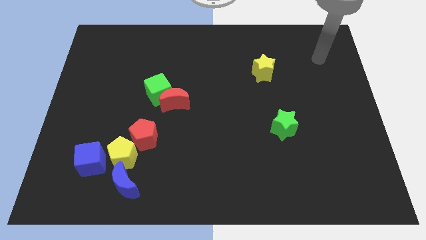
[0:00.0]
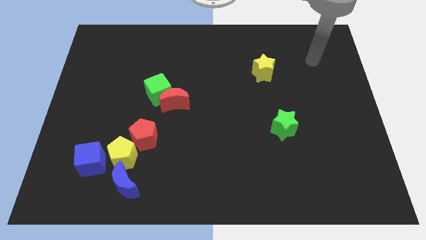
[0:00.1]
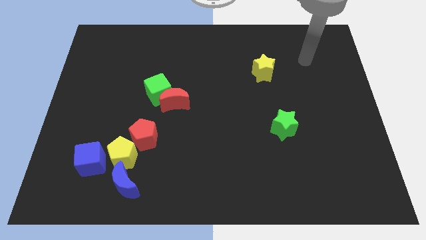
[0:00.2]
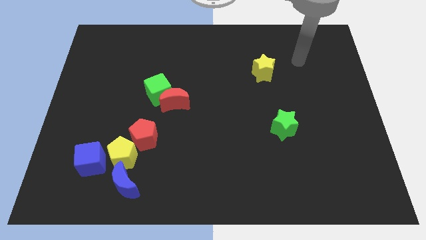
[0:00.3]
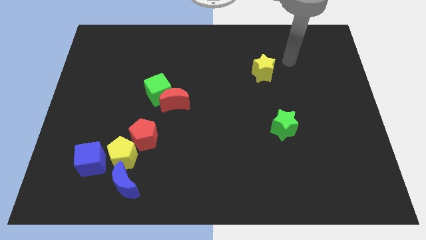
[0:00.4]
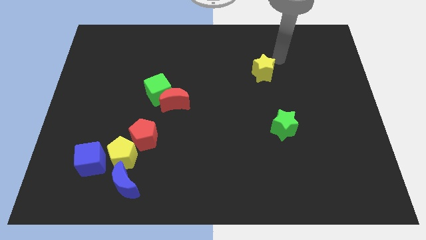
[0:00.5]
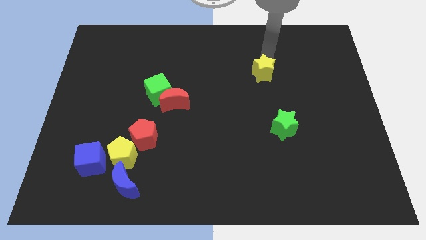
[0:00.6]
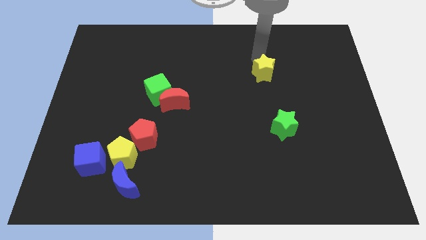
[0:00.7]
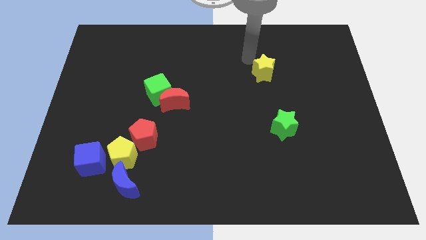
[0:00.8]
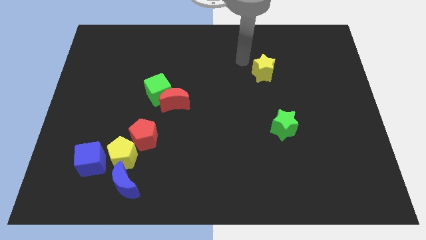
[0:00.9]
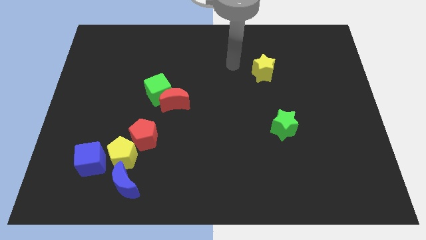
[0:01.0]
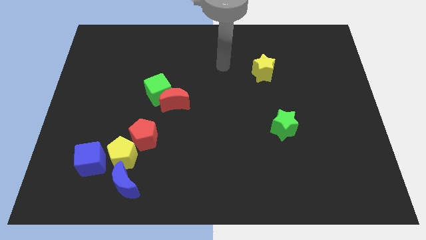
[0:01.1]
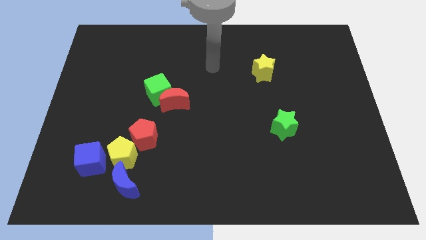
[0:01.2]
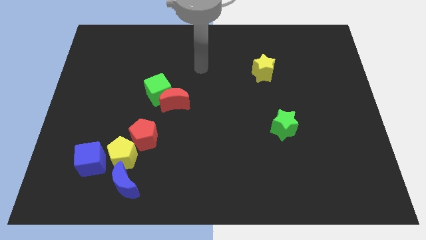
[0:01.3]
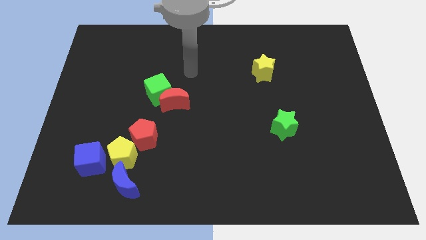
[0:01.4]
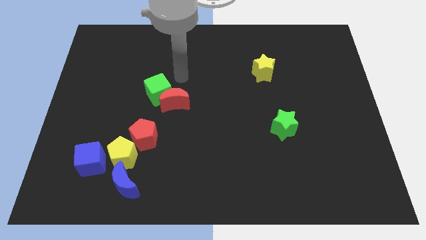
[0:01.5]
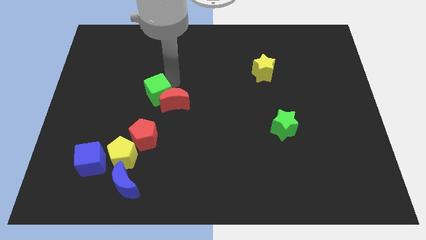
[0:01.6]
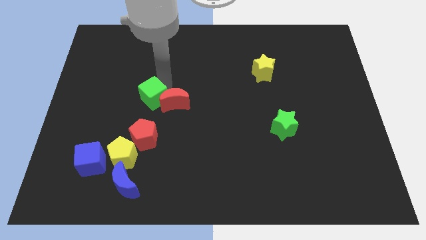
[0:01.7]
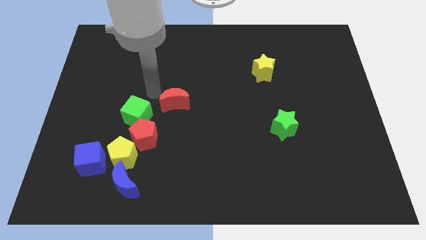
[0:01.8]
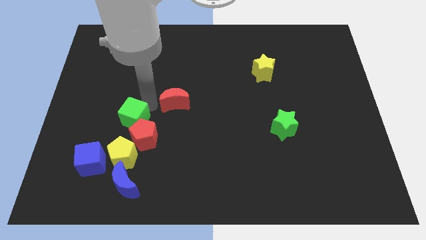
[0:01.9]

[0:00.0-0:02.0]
move the red moon away from the green cube

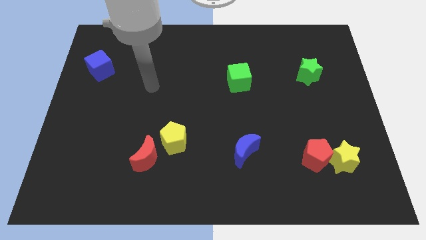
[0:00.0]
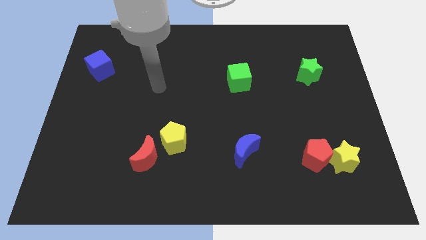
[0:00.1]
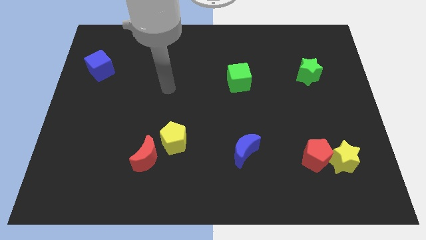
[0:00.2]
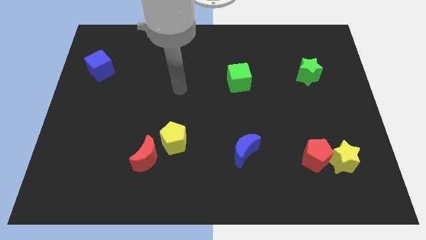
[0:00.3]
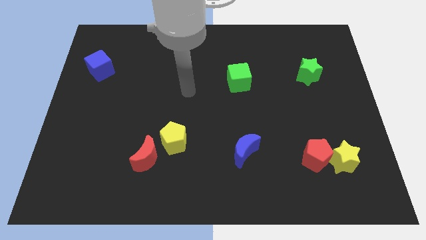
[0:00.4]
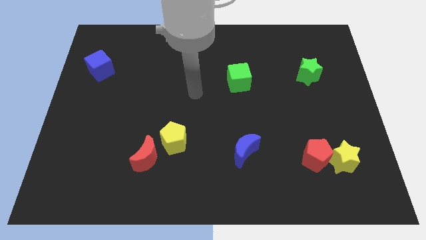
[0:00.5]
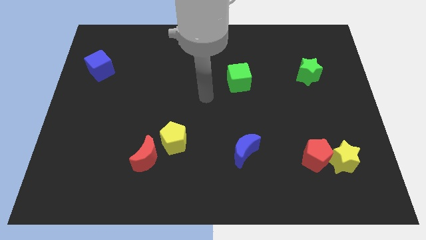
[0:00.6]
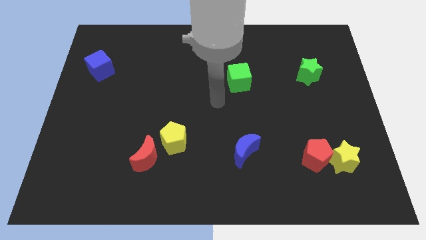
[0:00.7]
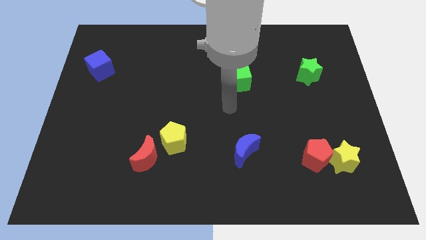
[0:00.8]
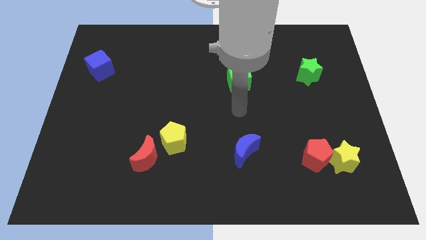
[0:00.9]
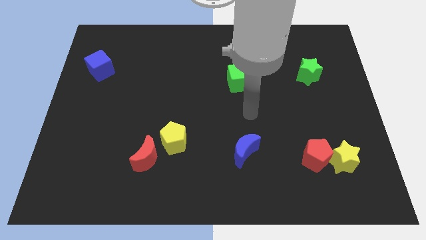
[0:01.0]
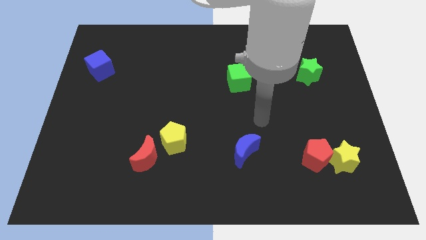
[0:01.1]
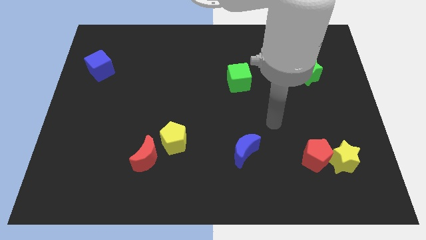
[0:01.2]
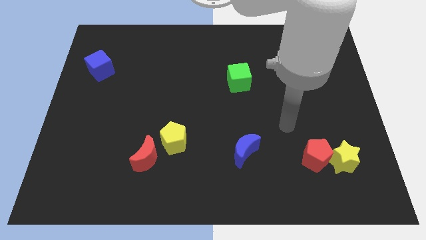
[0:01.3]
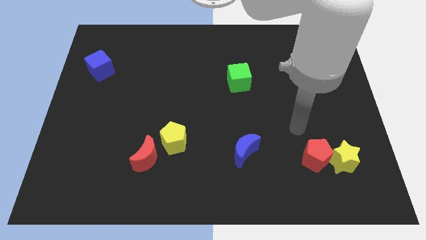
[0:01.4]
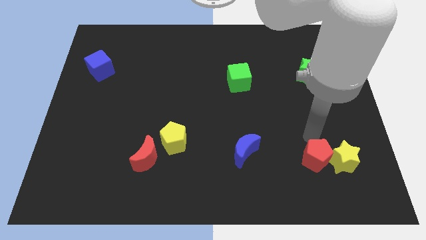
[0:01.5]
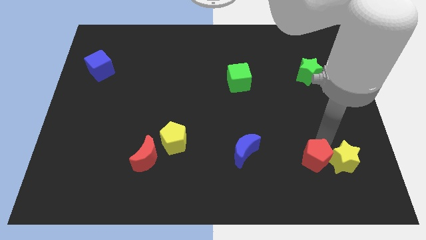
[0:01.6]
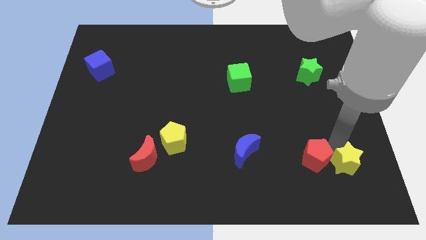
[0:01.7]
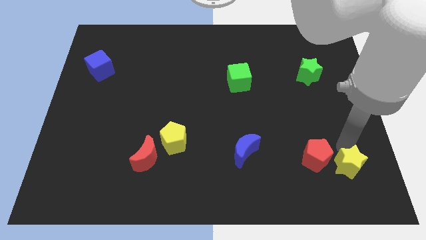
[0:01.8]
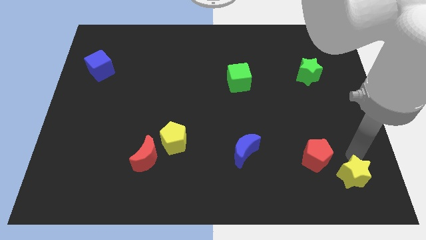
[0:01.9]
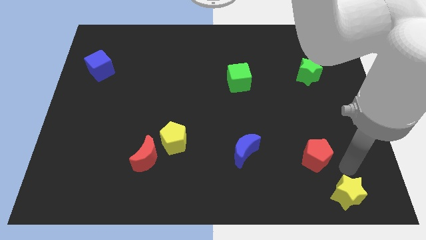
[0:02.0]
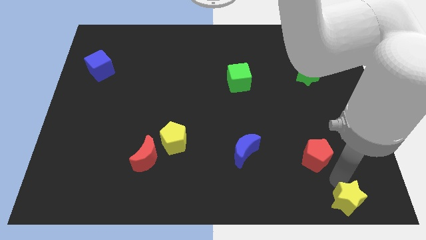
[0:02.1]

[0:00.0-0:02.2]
move the red pentagon away from the yellow star

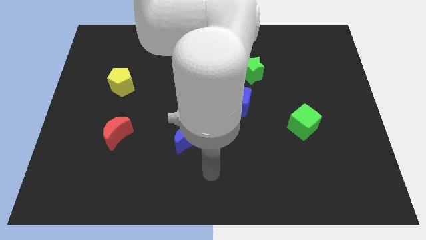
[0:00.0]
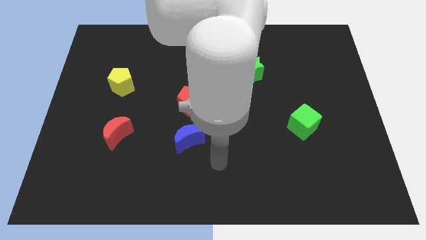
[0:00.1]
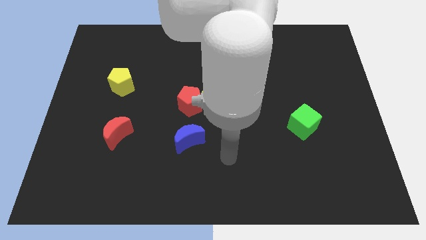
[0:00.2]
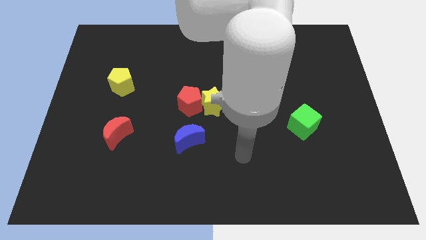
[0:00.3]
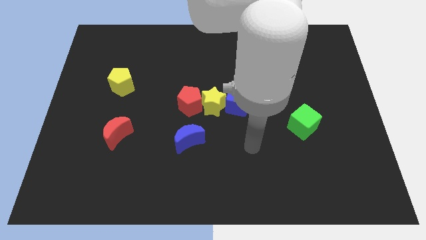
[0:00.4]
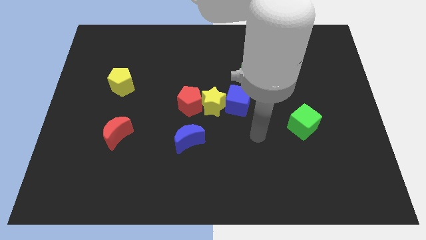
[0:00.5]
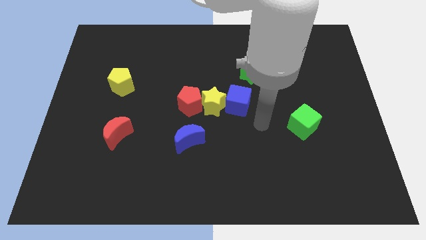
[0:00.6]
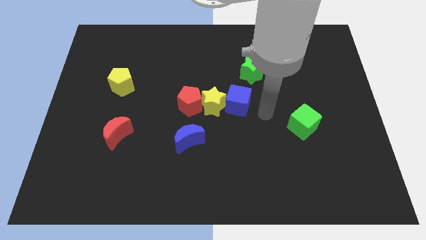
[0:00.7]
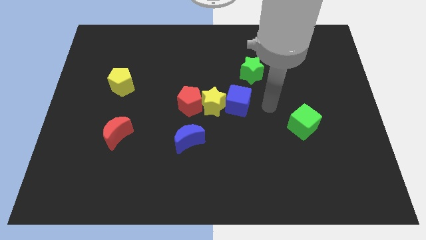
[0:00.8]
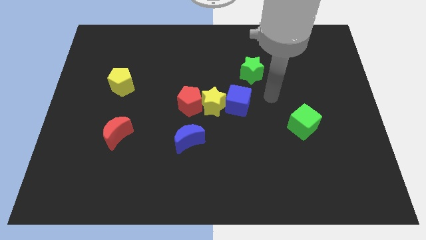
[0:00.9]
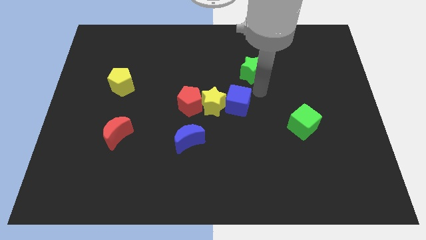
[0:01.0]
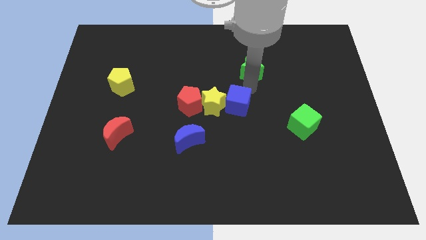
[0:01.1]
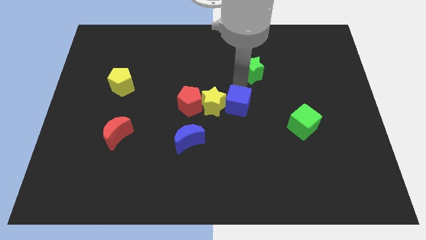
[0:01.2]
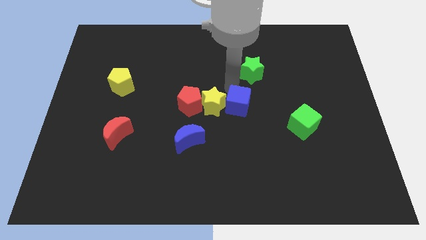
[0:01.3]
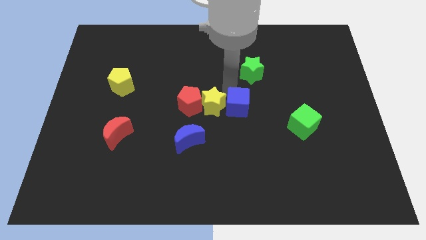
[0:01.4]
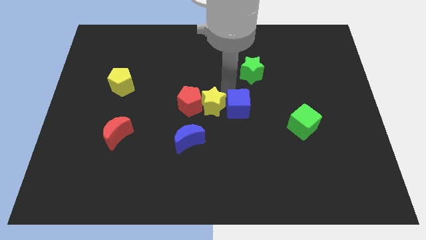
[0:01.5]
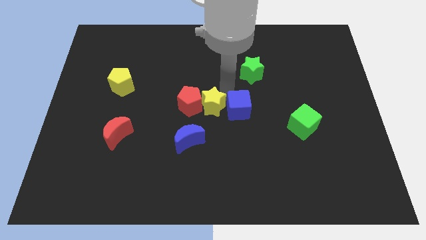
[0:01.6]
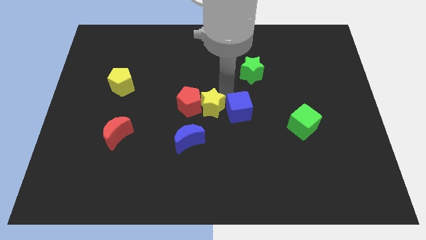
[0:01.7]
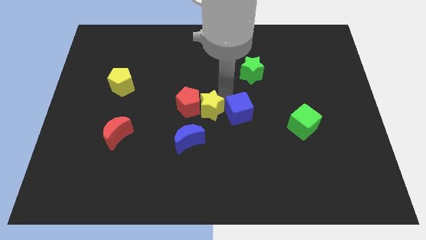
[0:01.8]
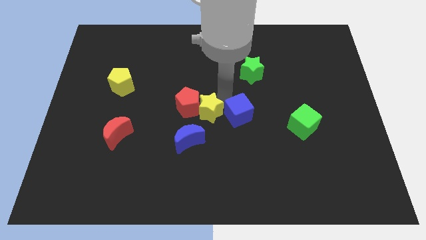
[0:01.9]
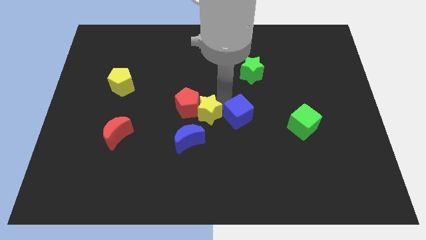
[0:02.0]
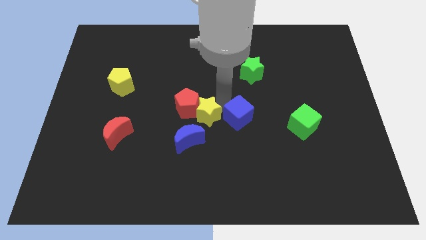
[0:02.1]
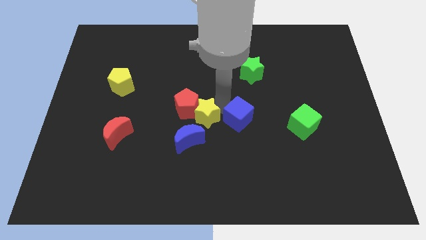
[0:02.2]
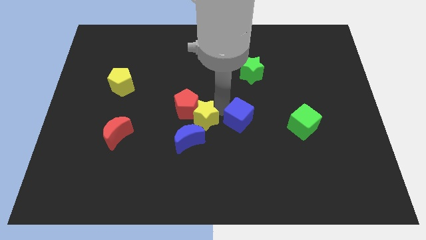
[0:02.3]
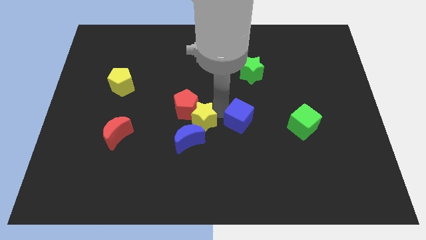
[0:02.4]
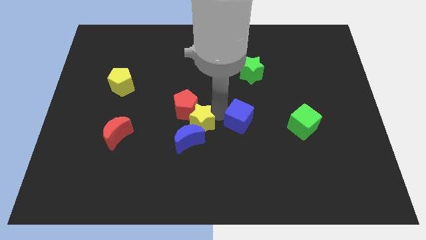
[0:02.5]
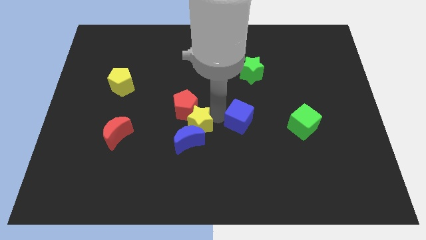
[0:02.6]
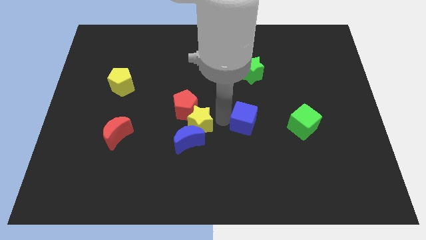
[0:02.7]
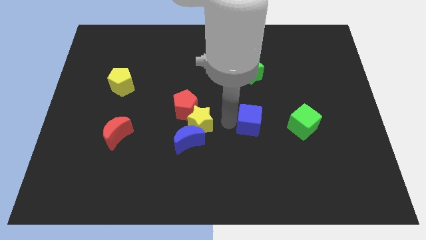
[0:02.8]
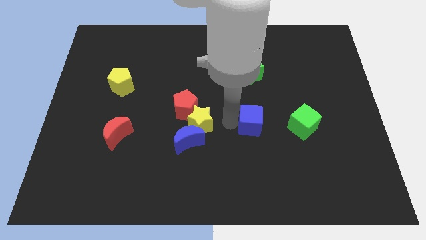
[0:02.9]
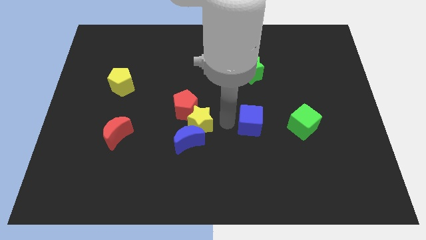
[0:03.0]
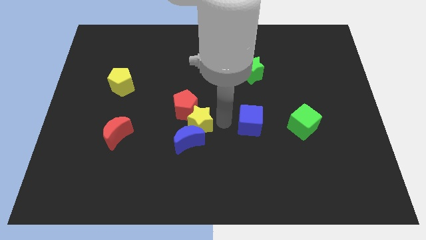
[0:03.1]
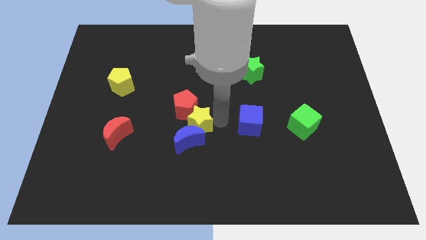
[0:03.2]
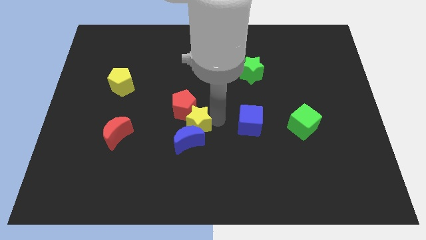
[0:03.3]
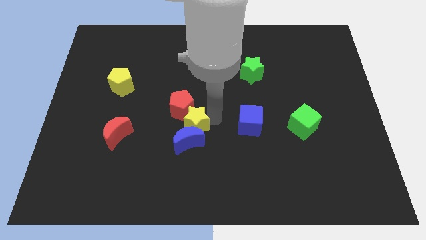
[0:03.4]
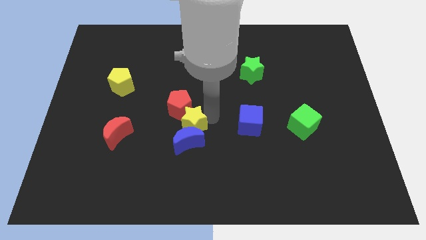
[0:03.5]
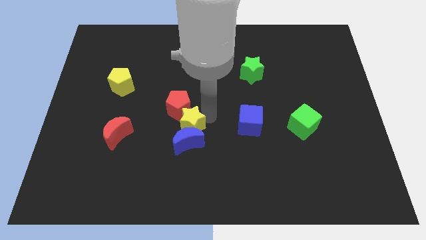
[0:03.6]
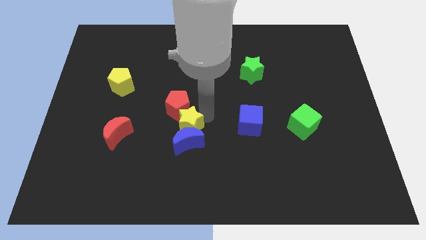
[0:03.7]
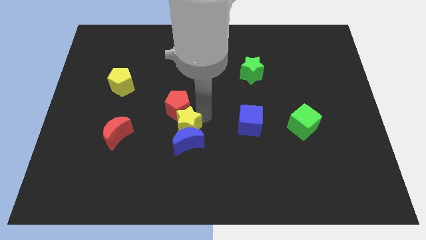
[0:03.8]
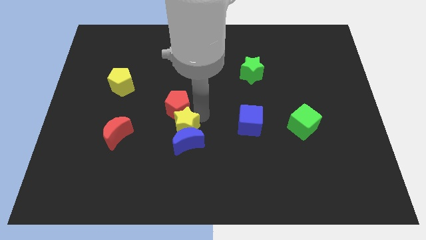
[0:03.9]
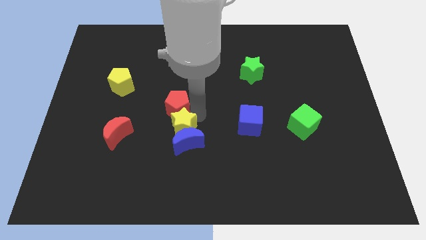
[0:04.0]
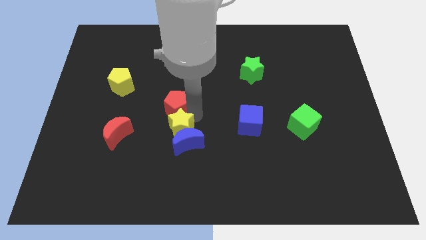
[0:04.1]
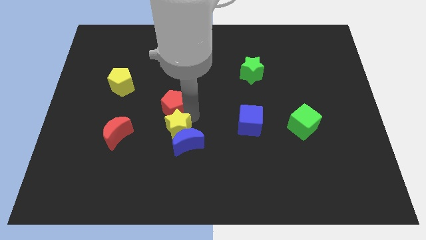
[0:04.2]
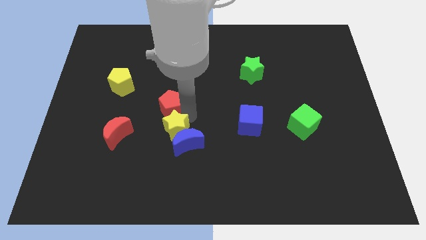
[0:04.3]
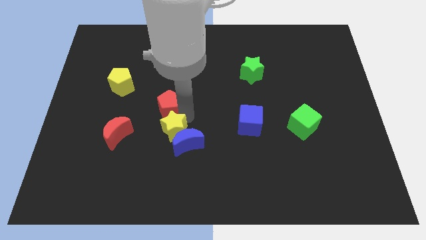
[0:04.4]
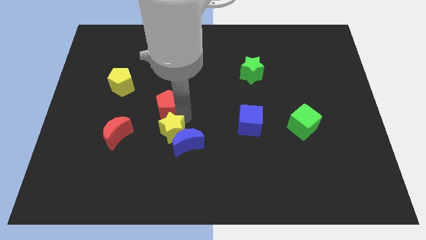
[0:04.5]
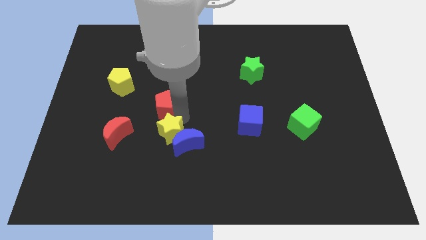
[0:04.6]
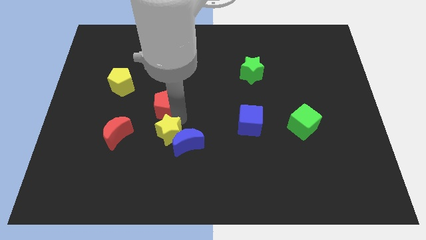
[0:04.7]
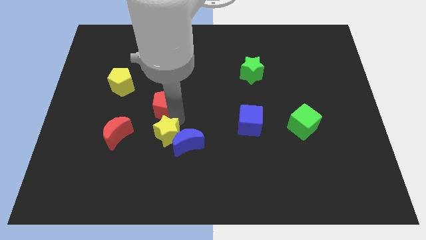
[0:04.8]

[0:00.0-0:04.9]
separate the yellow star from the red pentagon and blue cube

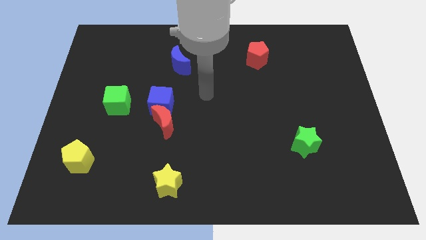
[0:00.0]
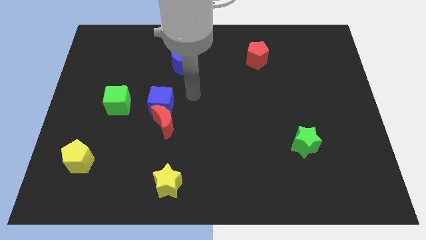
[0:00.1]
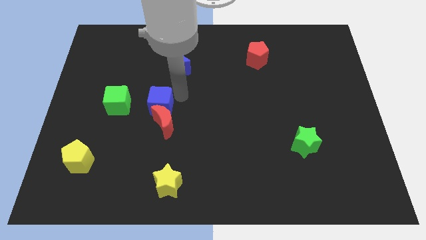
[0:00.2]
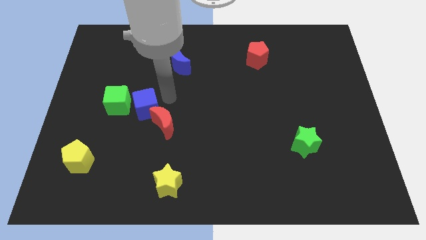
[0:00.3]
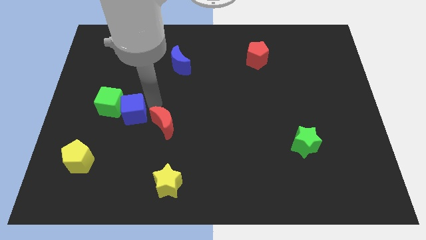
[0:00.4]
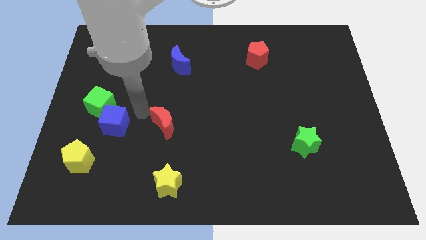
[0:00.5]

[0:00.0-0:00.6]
separate the red moon from the blue cube
